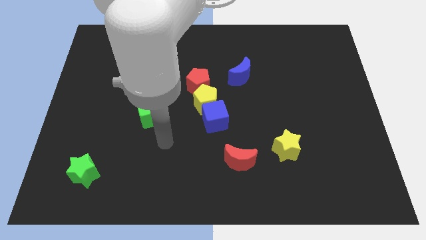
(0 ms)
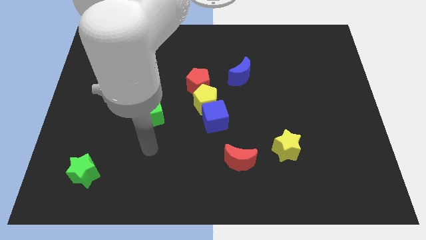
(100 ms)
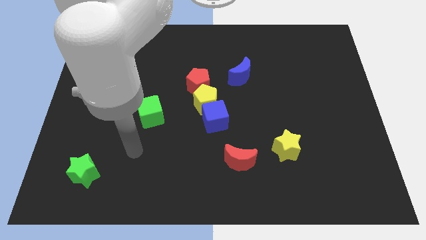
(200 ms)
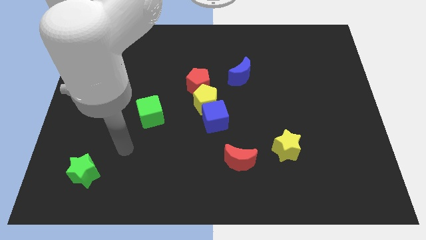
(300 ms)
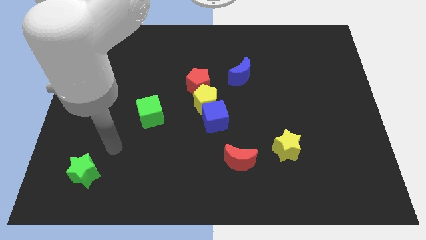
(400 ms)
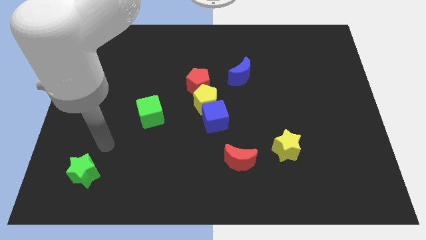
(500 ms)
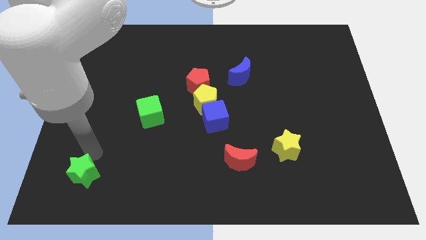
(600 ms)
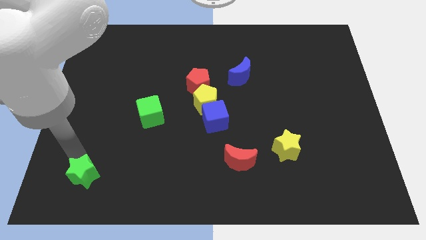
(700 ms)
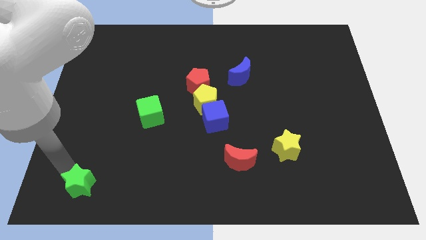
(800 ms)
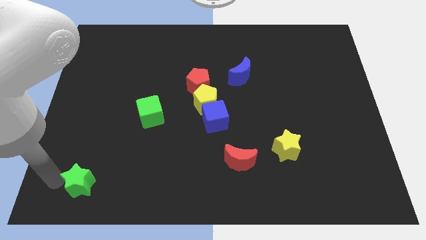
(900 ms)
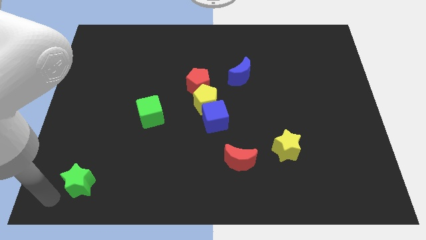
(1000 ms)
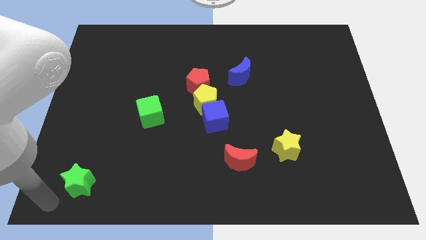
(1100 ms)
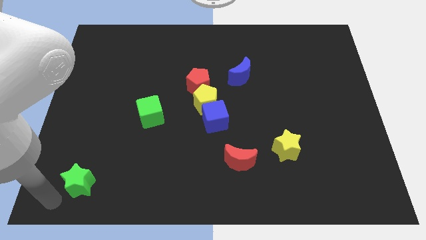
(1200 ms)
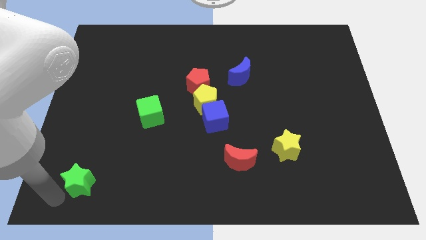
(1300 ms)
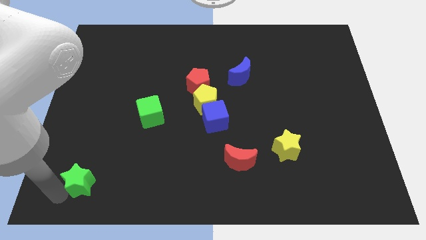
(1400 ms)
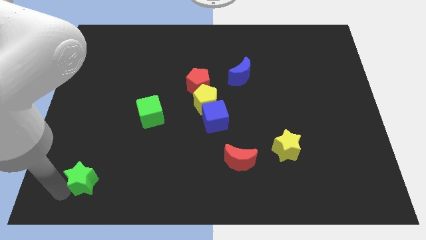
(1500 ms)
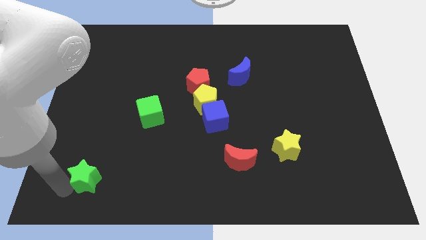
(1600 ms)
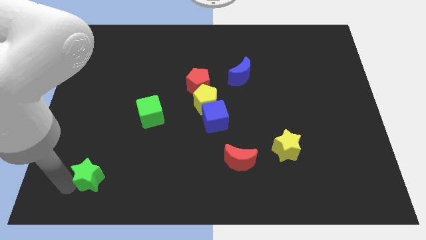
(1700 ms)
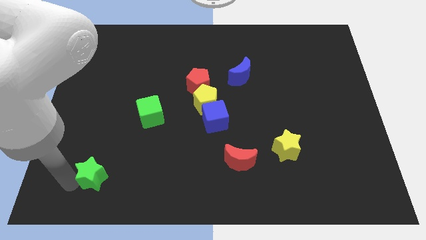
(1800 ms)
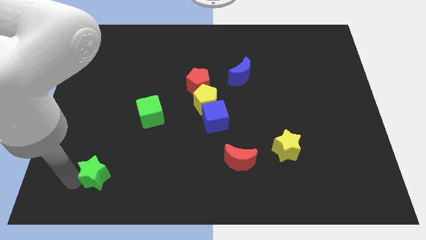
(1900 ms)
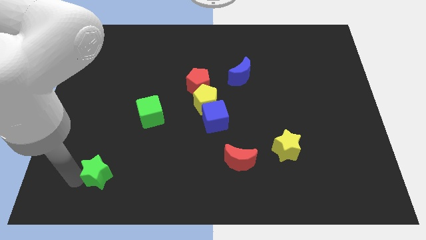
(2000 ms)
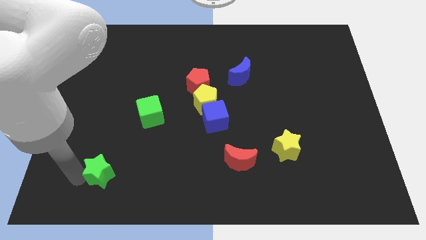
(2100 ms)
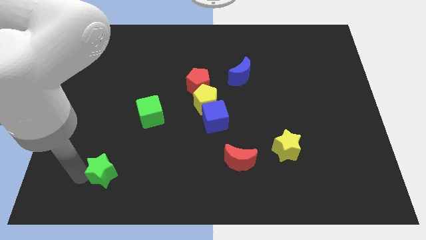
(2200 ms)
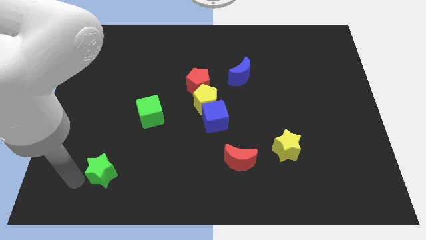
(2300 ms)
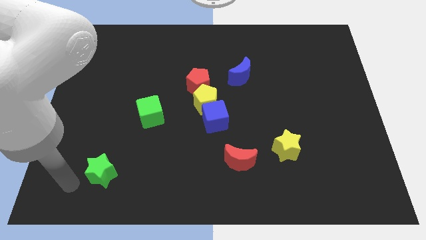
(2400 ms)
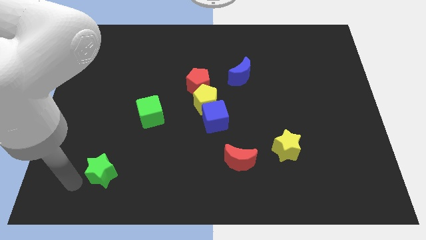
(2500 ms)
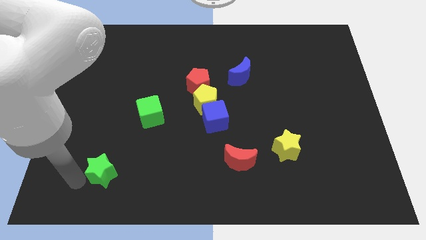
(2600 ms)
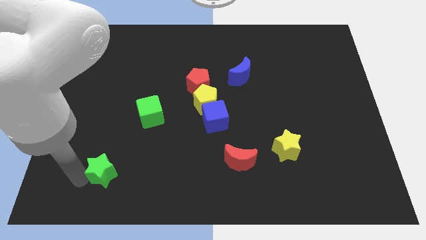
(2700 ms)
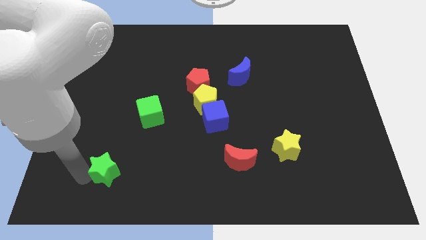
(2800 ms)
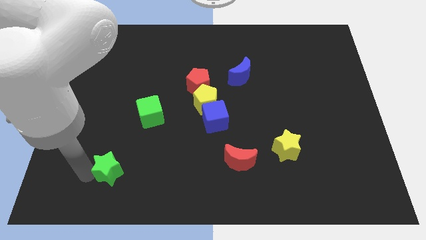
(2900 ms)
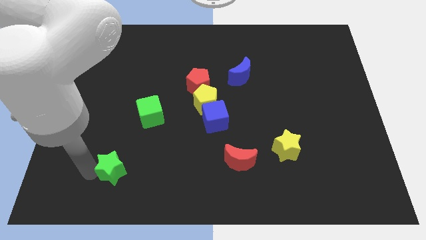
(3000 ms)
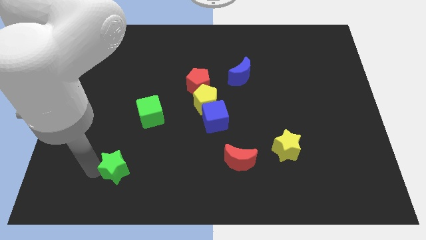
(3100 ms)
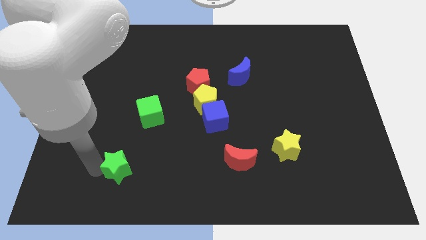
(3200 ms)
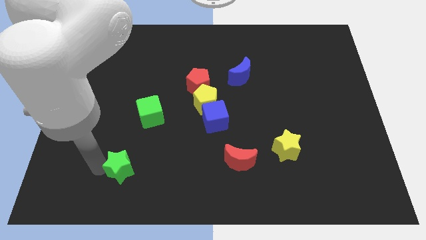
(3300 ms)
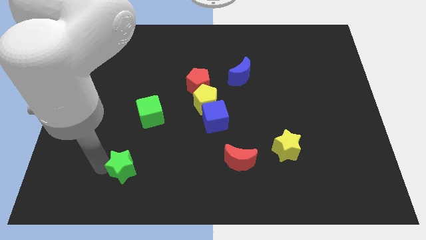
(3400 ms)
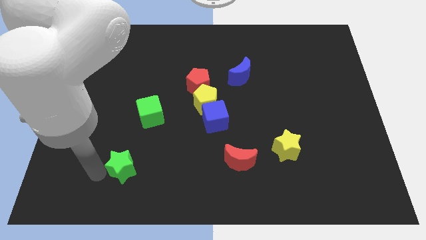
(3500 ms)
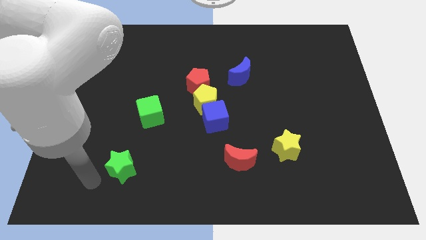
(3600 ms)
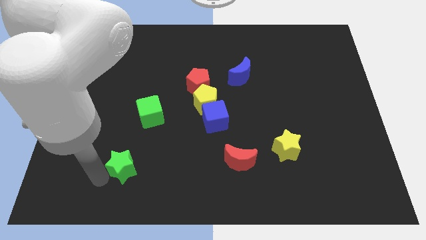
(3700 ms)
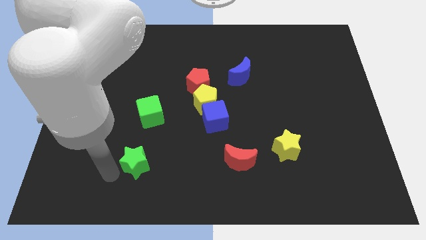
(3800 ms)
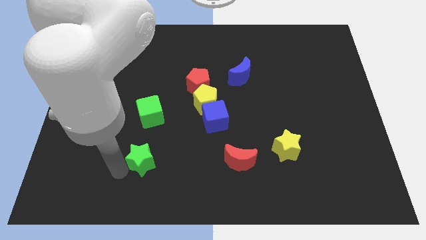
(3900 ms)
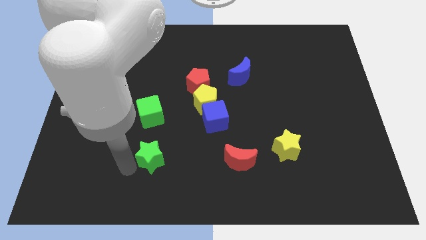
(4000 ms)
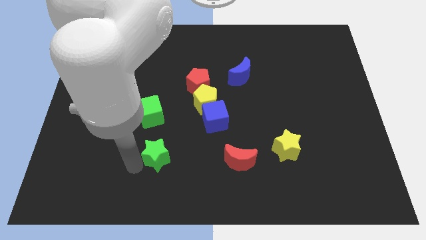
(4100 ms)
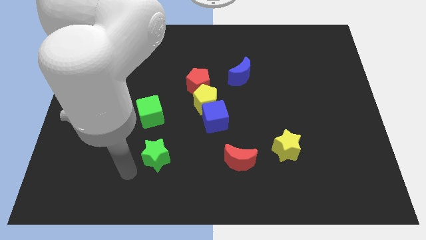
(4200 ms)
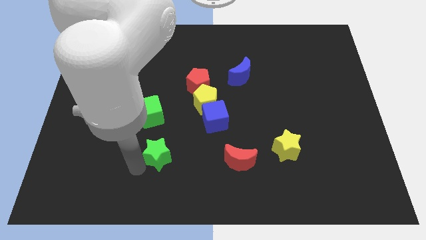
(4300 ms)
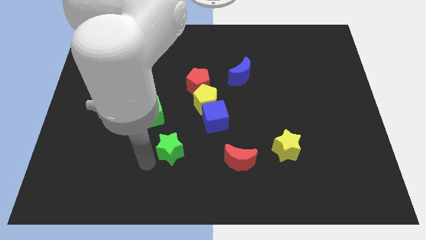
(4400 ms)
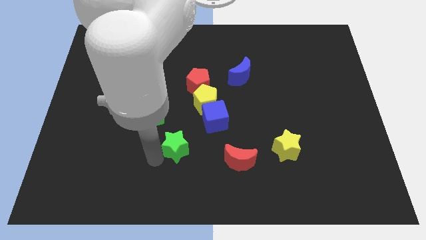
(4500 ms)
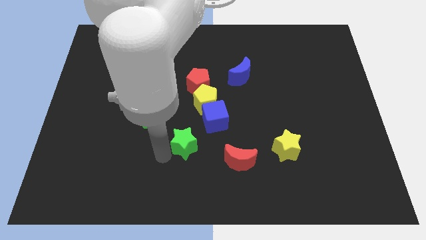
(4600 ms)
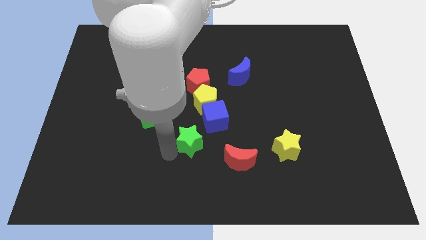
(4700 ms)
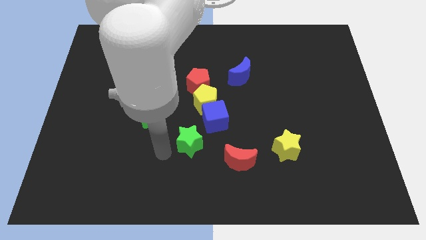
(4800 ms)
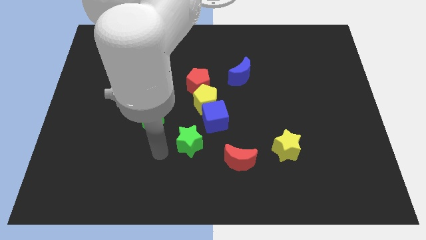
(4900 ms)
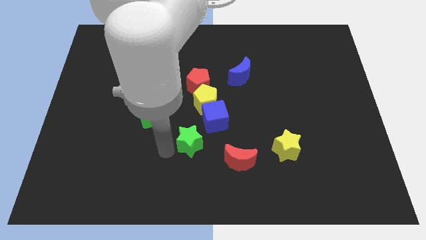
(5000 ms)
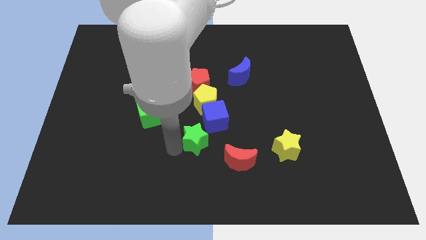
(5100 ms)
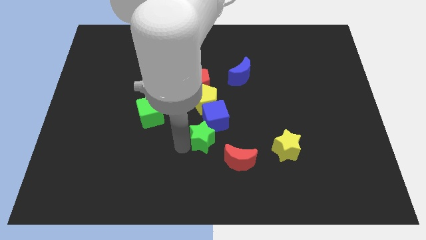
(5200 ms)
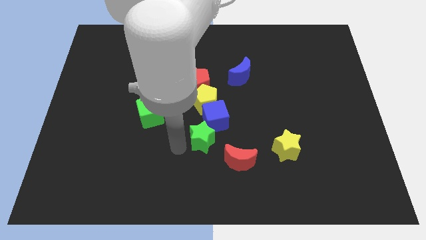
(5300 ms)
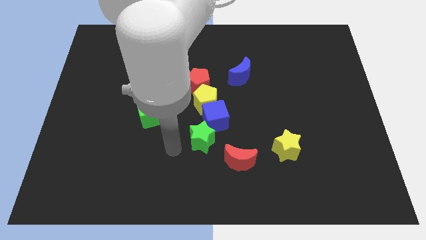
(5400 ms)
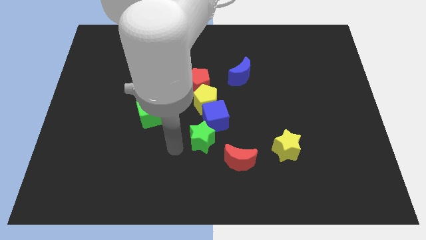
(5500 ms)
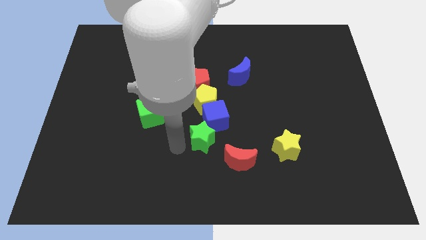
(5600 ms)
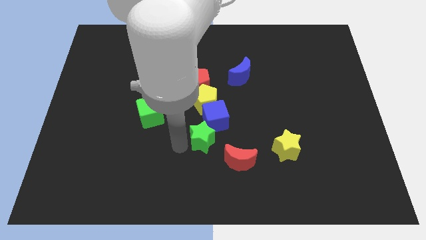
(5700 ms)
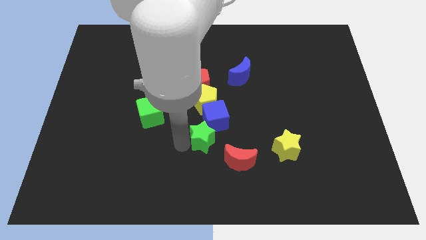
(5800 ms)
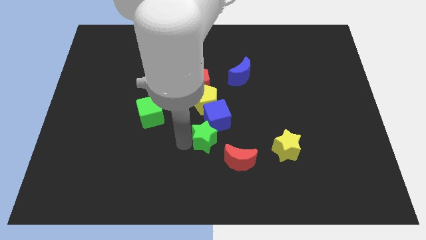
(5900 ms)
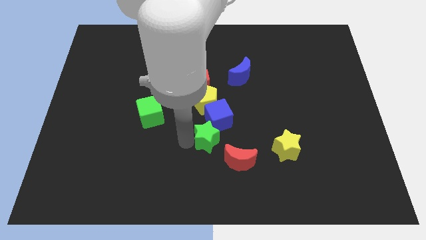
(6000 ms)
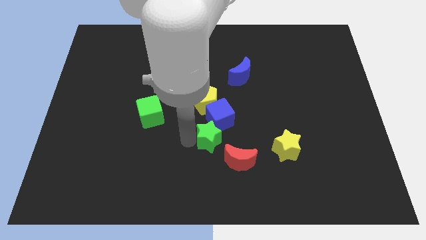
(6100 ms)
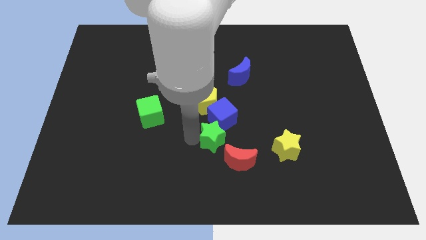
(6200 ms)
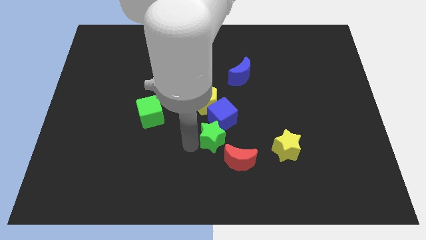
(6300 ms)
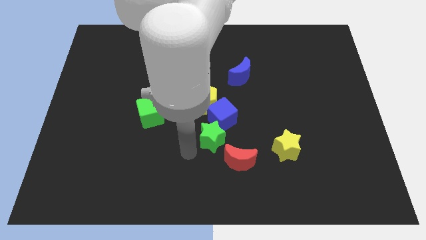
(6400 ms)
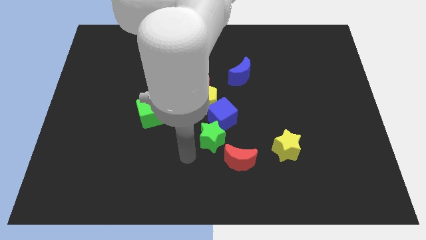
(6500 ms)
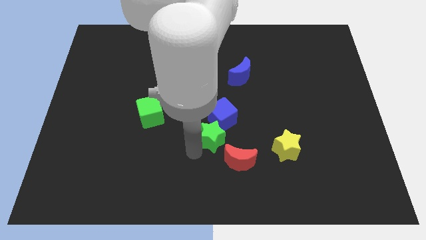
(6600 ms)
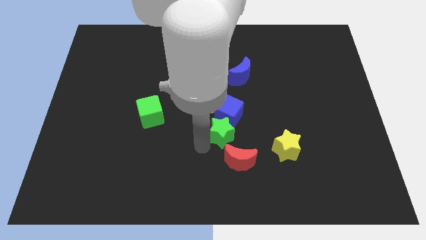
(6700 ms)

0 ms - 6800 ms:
put the green star to the top of the red moon
